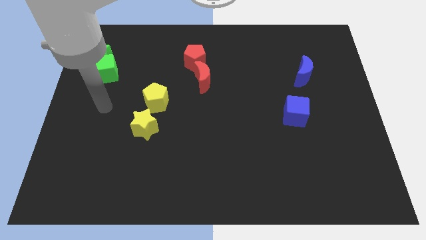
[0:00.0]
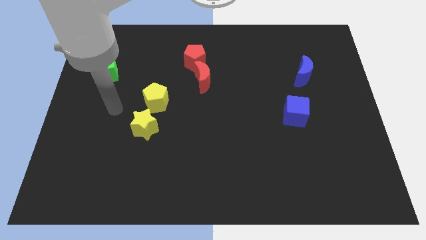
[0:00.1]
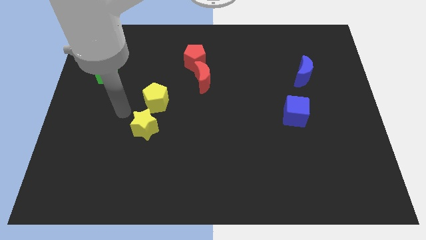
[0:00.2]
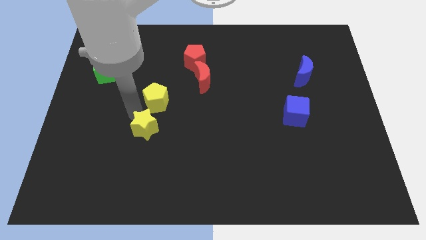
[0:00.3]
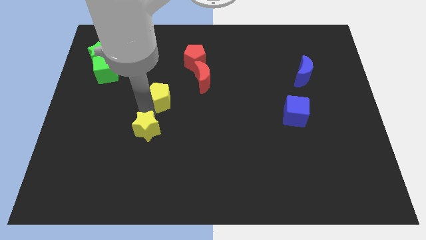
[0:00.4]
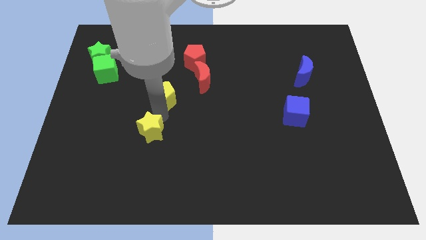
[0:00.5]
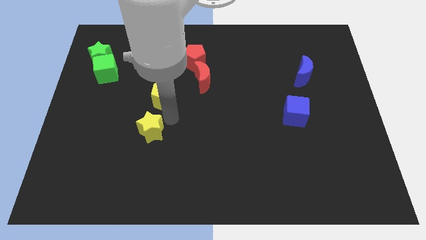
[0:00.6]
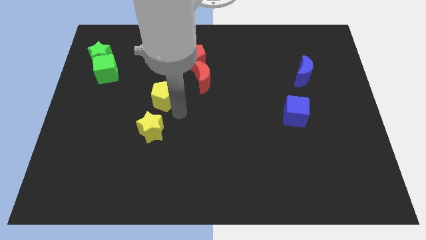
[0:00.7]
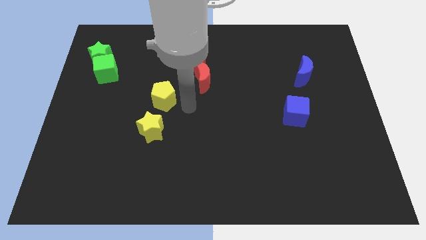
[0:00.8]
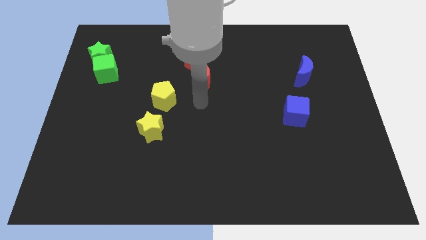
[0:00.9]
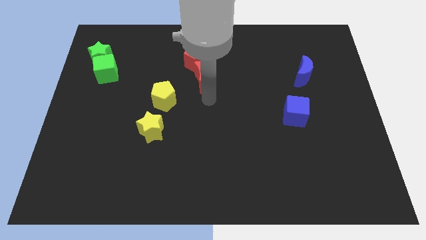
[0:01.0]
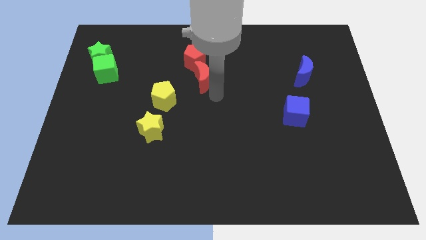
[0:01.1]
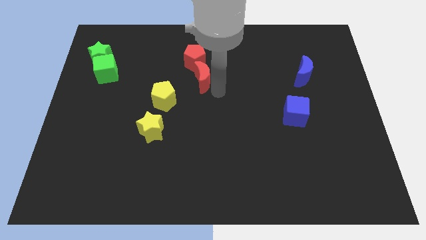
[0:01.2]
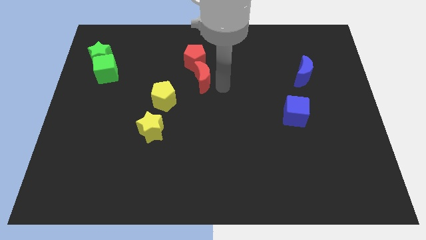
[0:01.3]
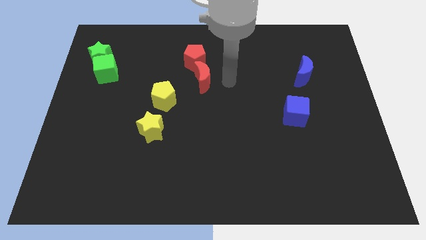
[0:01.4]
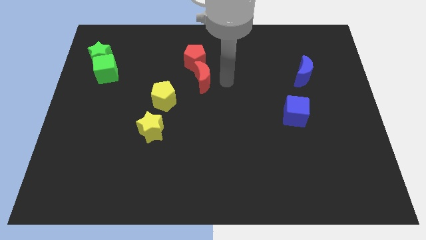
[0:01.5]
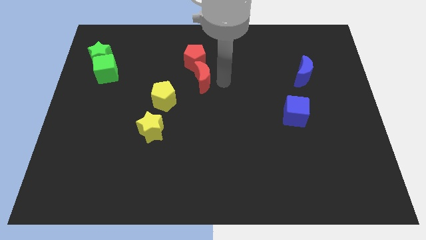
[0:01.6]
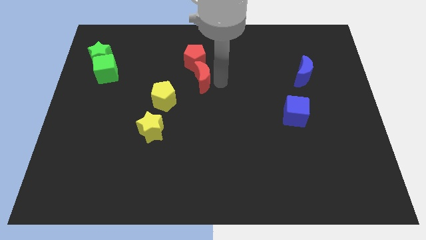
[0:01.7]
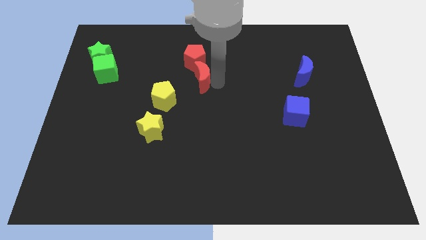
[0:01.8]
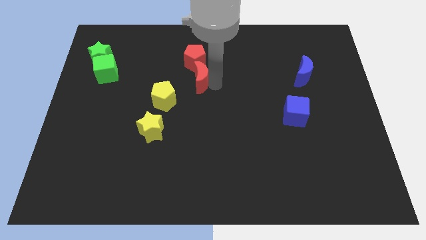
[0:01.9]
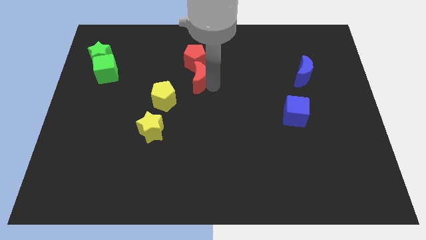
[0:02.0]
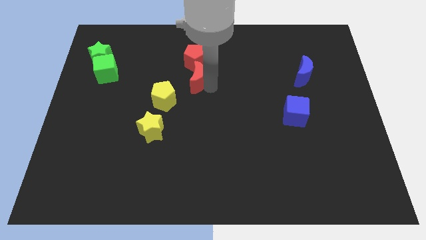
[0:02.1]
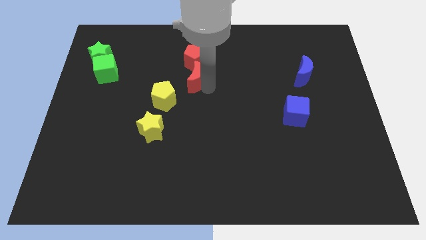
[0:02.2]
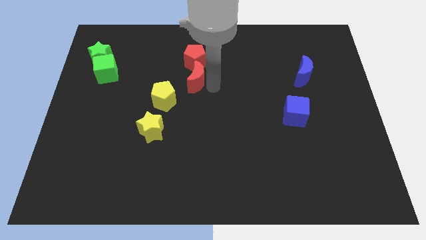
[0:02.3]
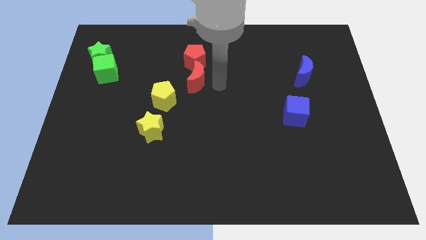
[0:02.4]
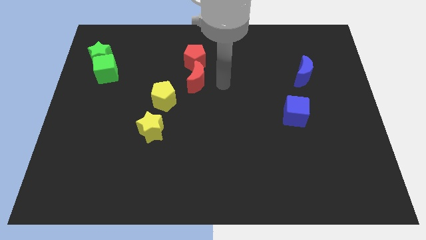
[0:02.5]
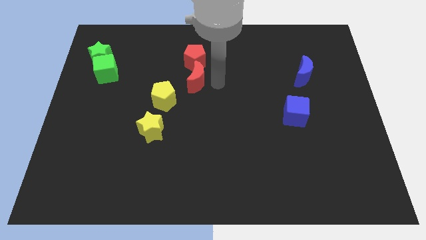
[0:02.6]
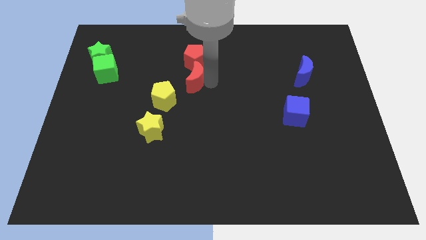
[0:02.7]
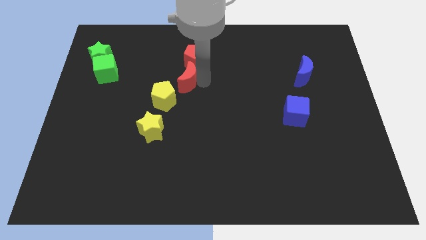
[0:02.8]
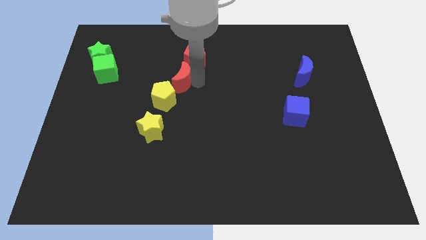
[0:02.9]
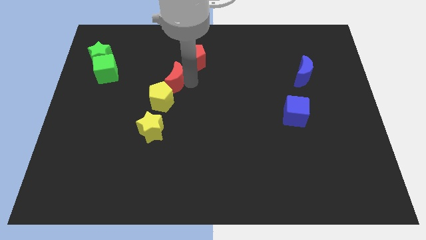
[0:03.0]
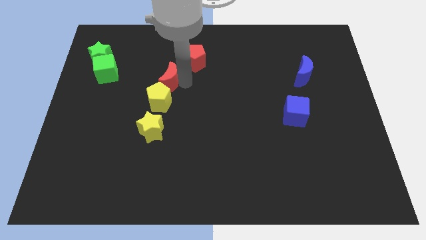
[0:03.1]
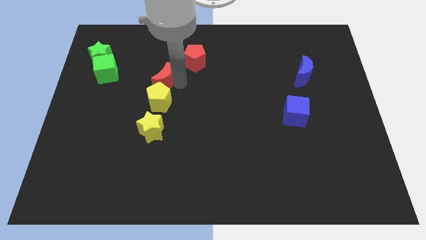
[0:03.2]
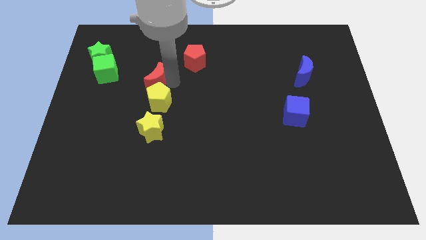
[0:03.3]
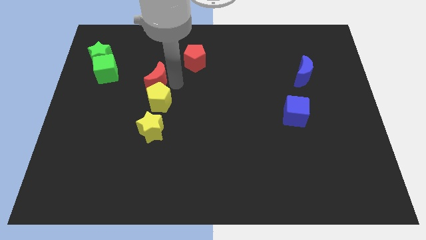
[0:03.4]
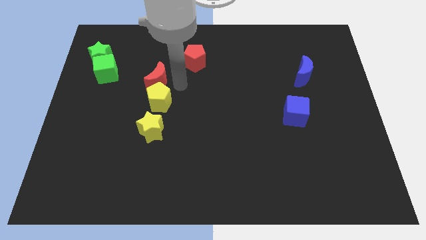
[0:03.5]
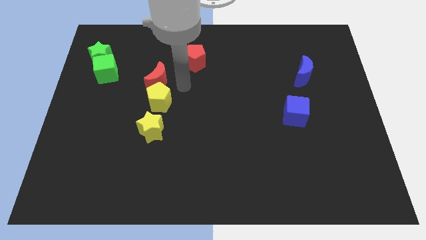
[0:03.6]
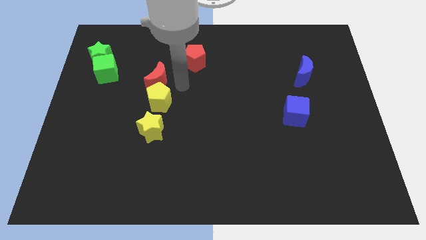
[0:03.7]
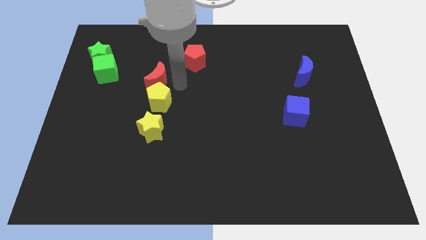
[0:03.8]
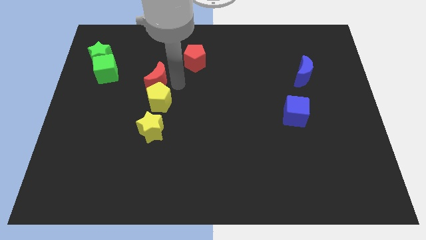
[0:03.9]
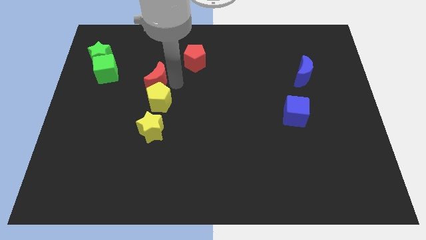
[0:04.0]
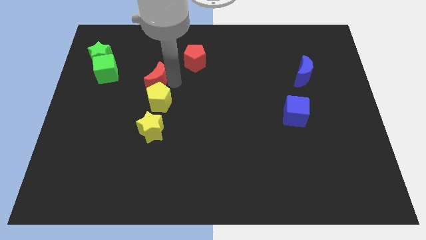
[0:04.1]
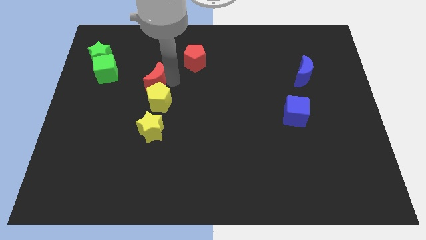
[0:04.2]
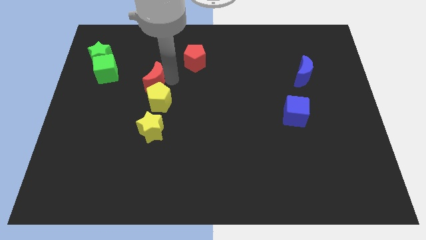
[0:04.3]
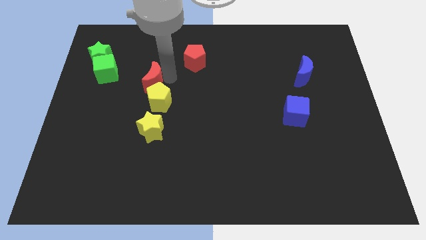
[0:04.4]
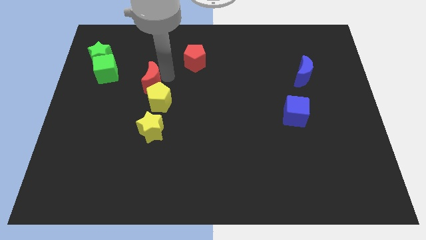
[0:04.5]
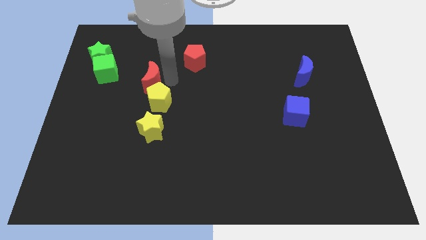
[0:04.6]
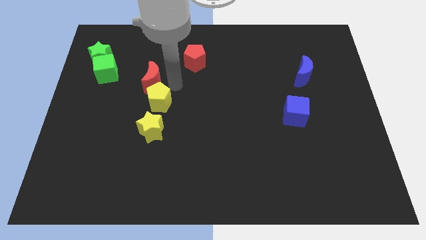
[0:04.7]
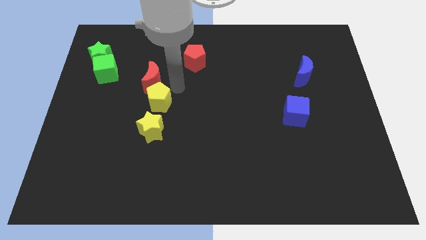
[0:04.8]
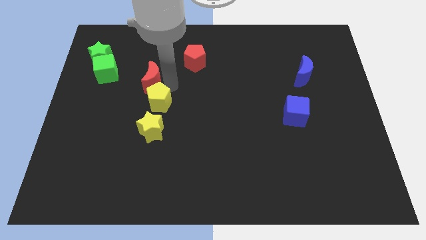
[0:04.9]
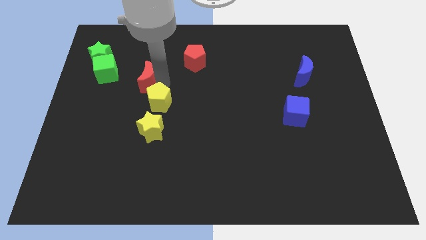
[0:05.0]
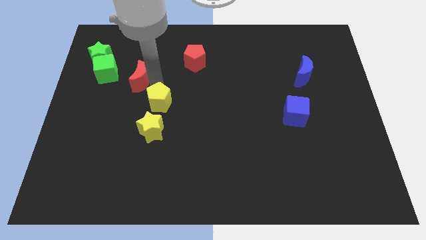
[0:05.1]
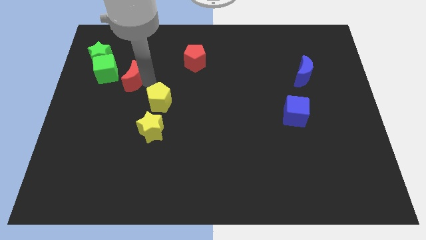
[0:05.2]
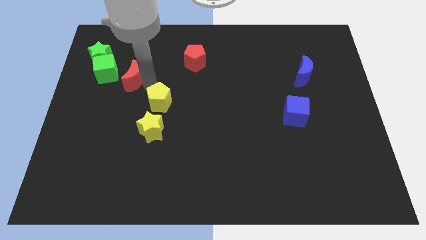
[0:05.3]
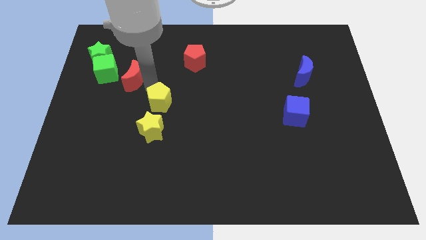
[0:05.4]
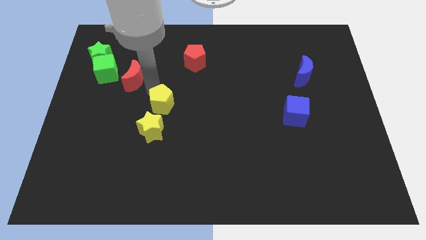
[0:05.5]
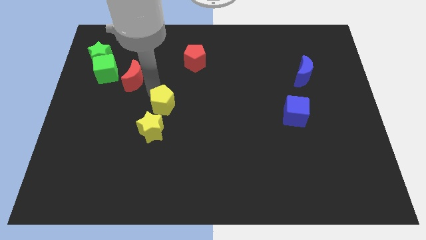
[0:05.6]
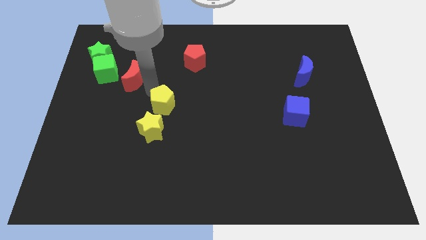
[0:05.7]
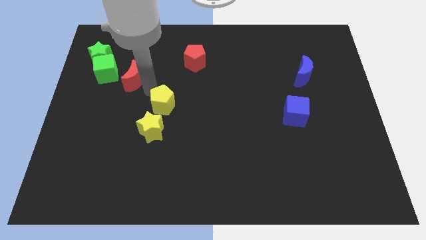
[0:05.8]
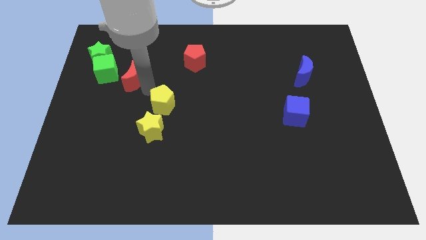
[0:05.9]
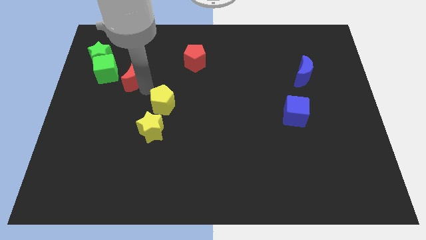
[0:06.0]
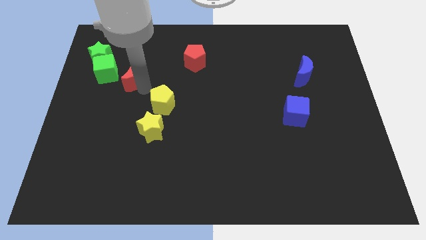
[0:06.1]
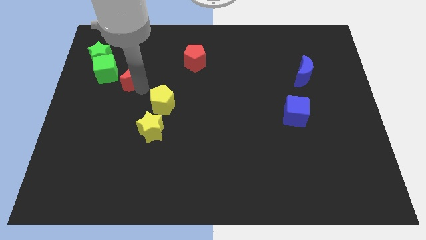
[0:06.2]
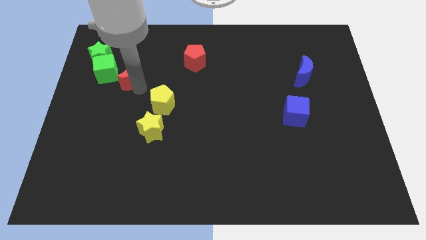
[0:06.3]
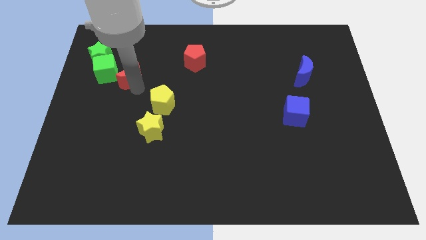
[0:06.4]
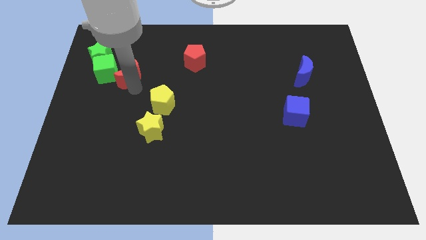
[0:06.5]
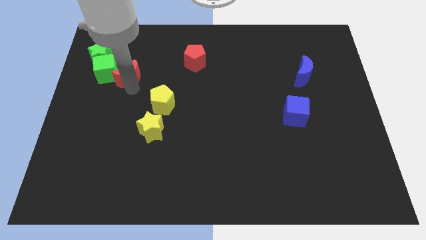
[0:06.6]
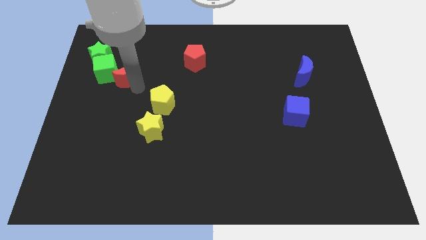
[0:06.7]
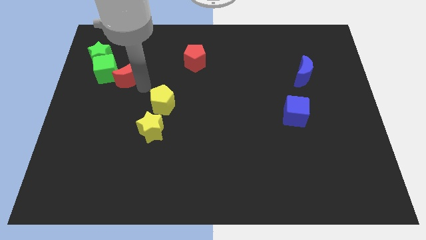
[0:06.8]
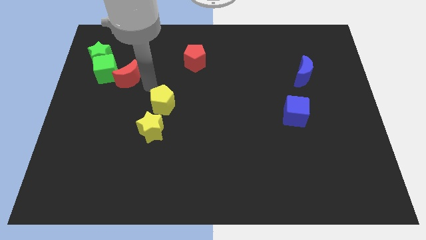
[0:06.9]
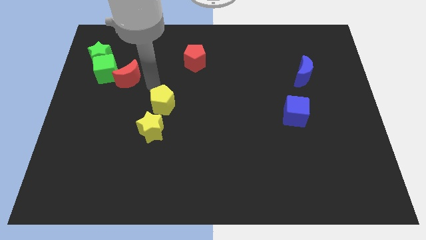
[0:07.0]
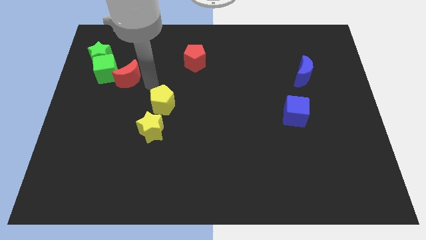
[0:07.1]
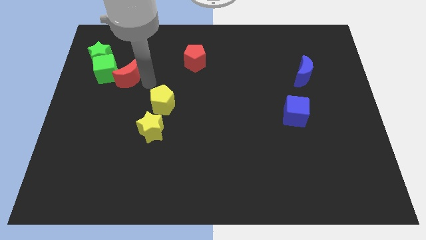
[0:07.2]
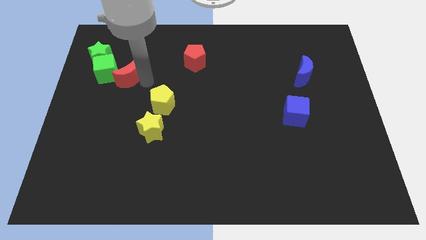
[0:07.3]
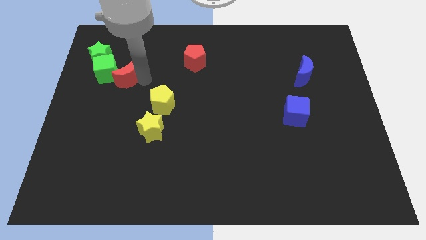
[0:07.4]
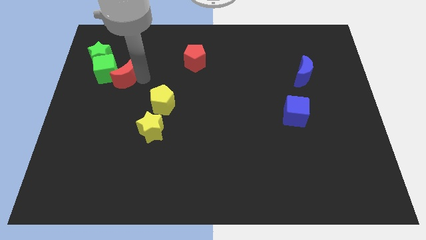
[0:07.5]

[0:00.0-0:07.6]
put the red moon to the green cube
